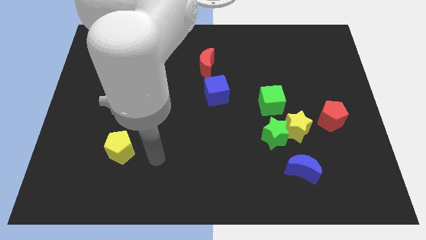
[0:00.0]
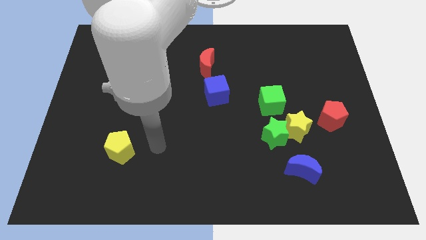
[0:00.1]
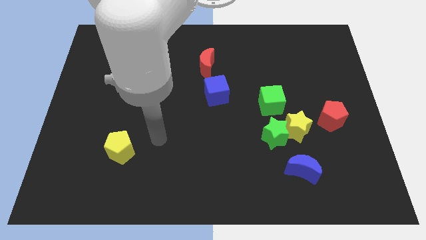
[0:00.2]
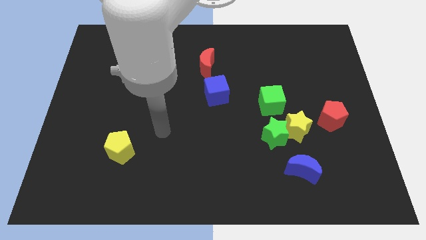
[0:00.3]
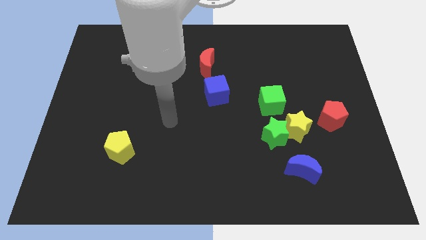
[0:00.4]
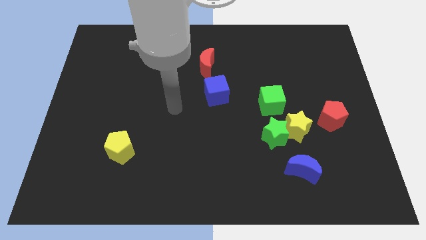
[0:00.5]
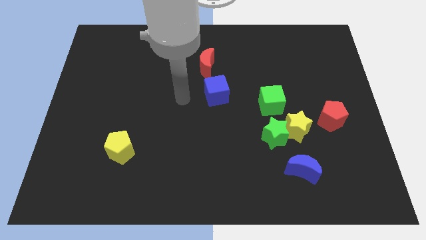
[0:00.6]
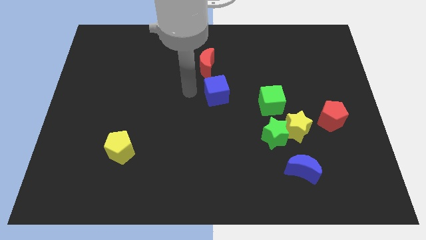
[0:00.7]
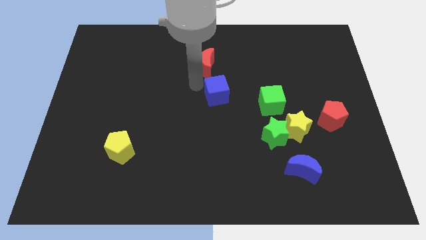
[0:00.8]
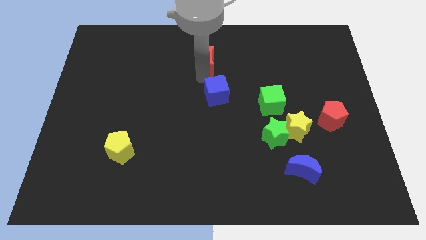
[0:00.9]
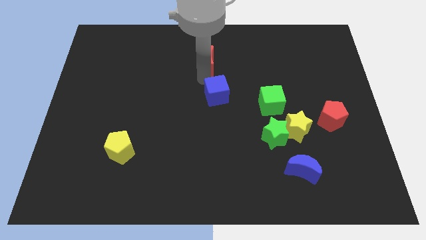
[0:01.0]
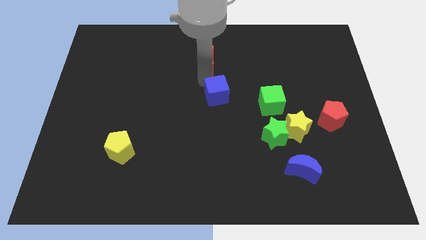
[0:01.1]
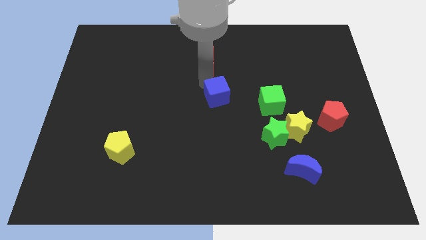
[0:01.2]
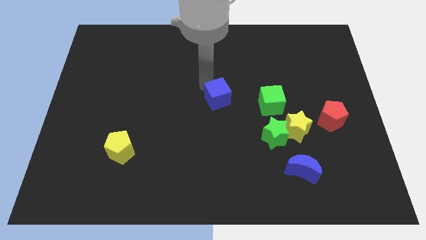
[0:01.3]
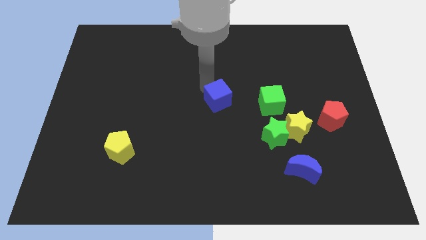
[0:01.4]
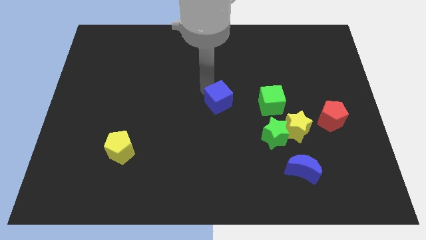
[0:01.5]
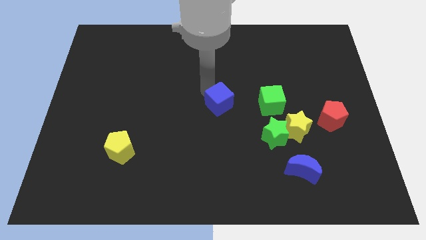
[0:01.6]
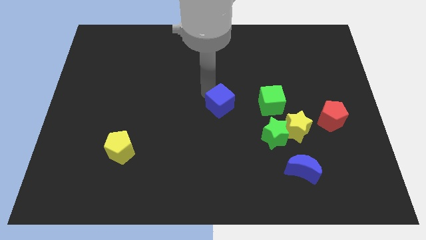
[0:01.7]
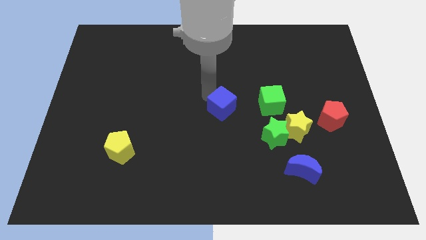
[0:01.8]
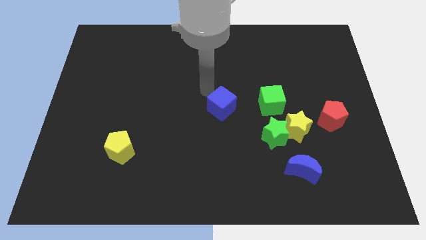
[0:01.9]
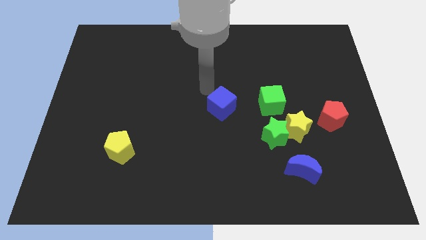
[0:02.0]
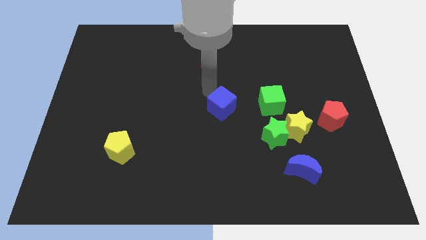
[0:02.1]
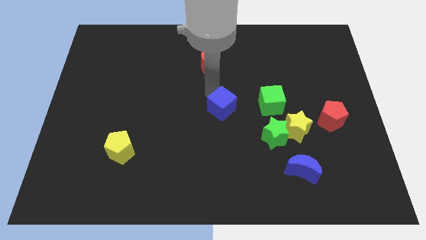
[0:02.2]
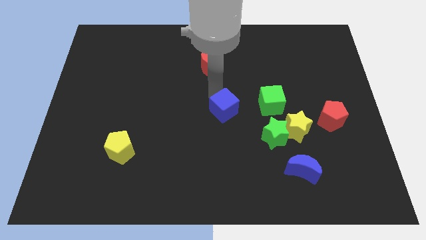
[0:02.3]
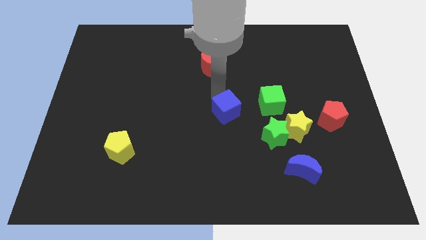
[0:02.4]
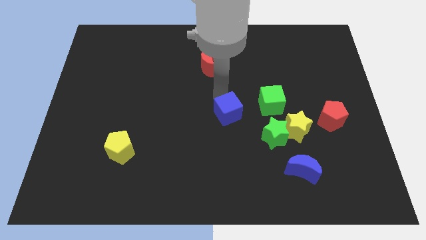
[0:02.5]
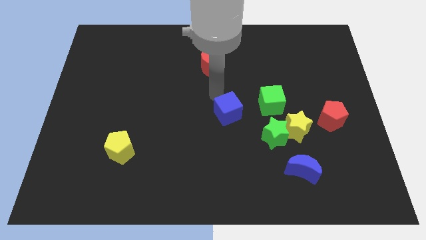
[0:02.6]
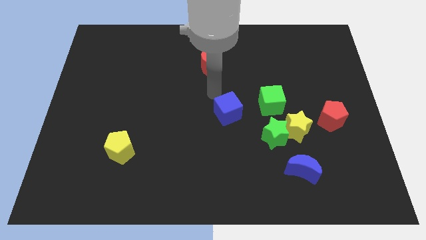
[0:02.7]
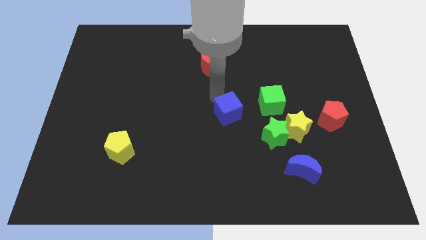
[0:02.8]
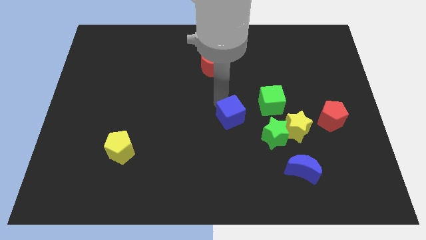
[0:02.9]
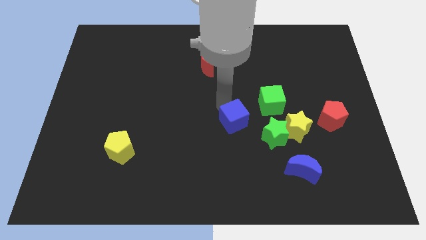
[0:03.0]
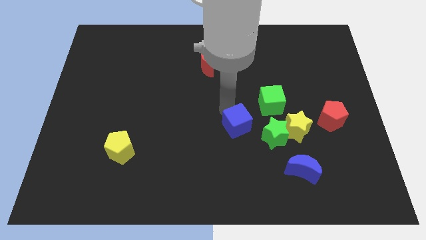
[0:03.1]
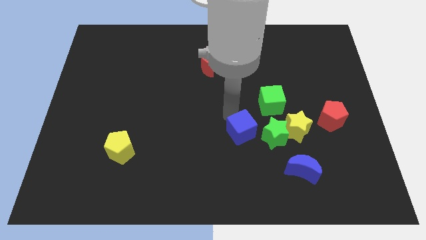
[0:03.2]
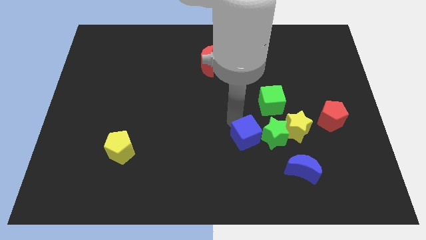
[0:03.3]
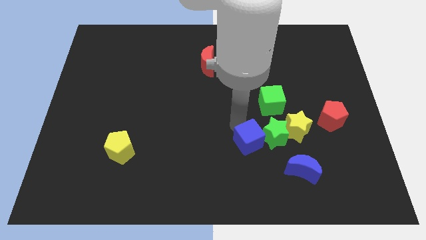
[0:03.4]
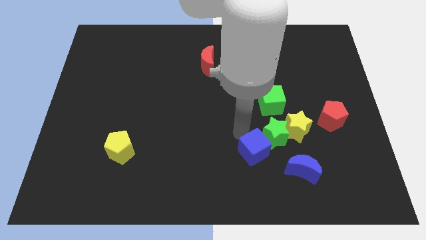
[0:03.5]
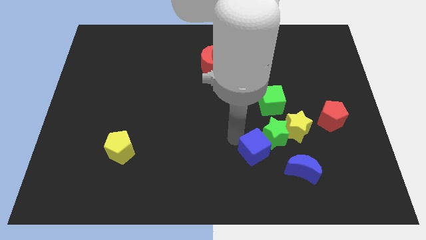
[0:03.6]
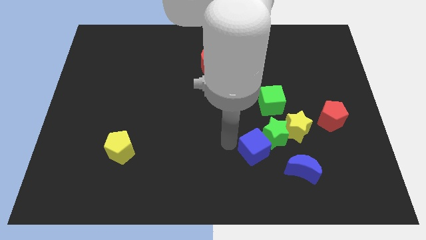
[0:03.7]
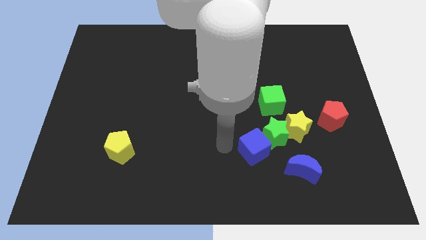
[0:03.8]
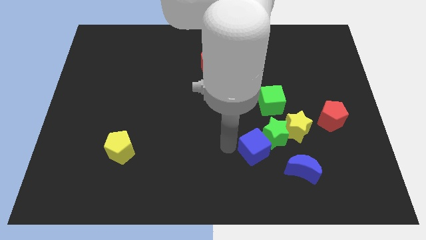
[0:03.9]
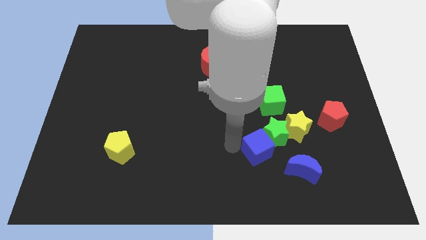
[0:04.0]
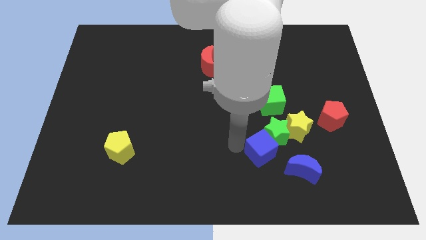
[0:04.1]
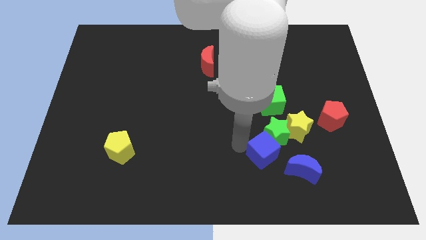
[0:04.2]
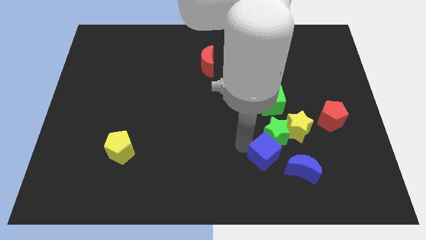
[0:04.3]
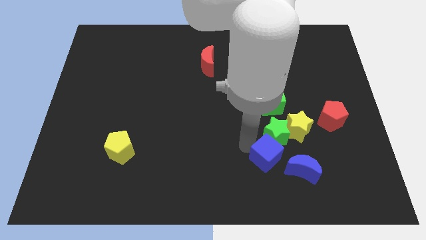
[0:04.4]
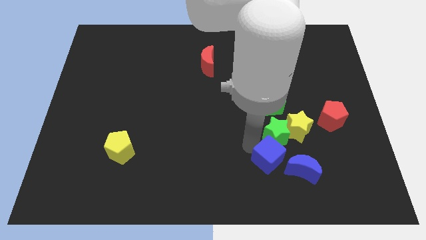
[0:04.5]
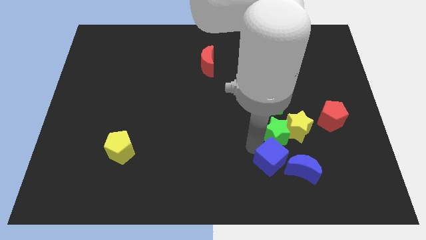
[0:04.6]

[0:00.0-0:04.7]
move the blue cube down and right diagonally

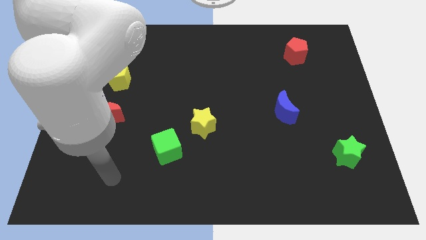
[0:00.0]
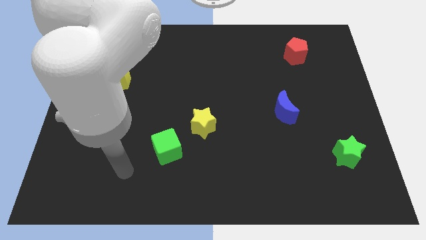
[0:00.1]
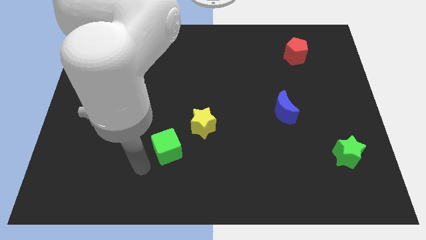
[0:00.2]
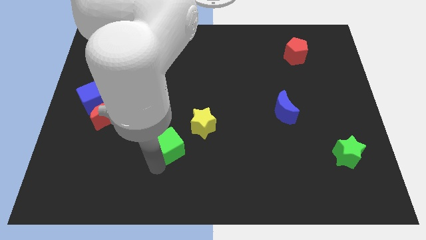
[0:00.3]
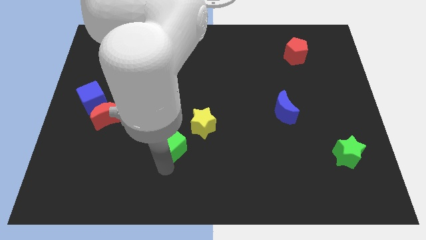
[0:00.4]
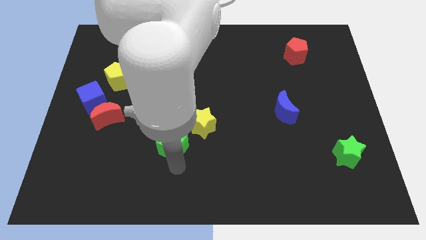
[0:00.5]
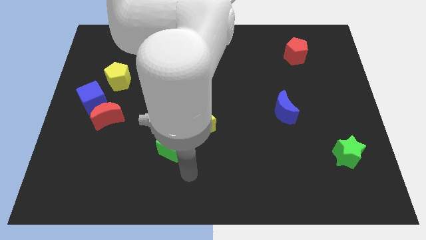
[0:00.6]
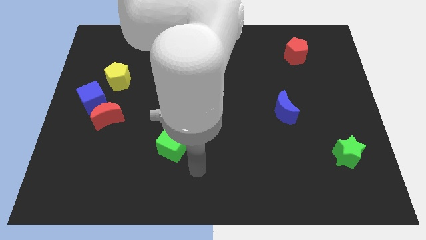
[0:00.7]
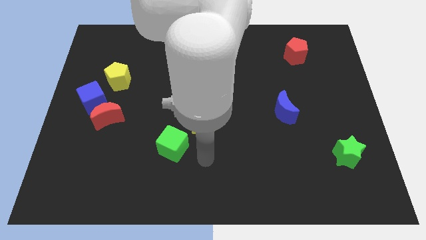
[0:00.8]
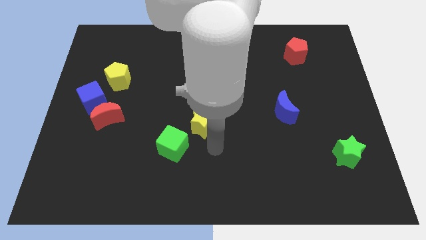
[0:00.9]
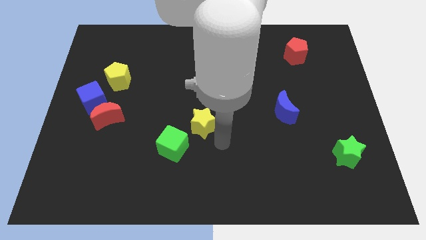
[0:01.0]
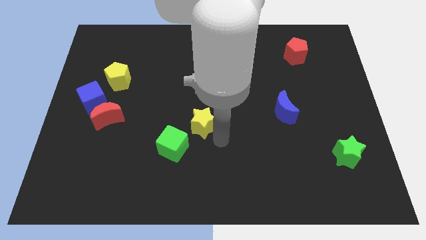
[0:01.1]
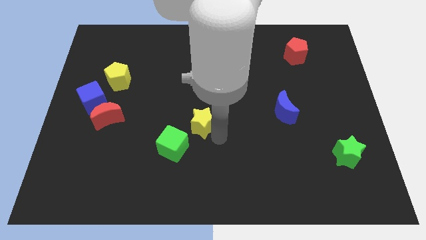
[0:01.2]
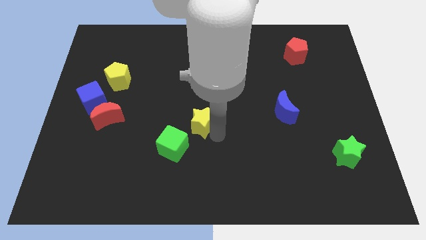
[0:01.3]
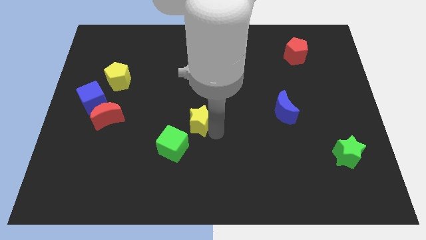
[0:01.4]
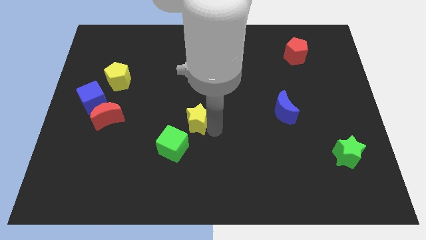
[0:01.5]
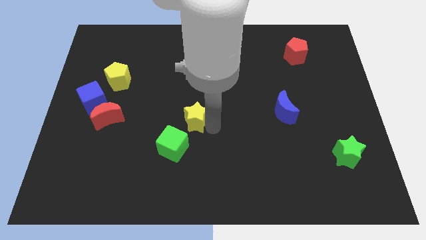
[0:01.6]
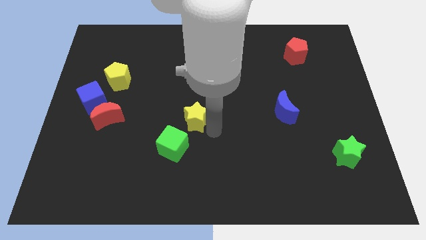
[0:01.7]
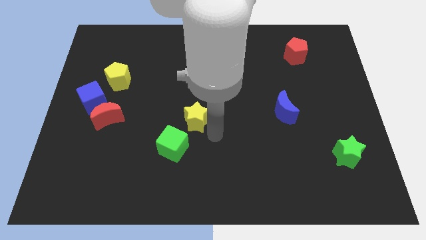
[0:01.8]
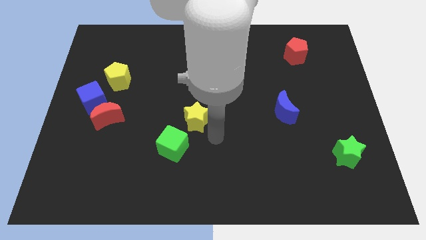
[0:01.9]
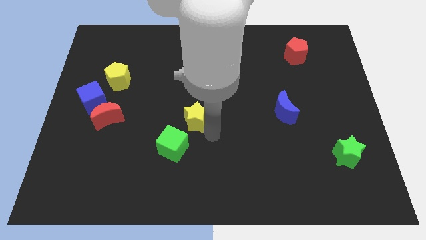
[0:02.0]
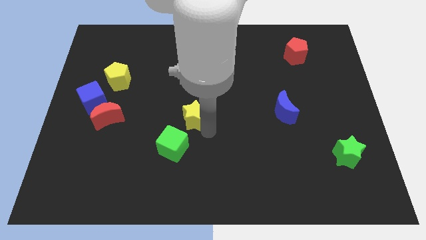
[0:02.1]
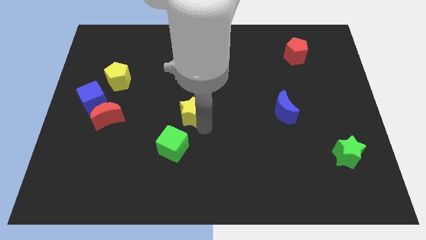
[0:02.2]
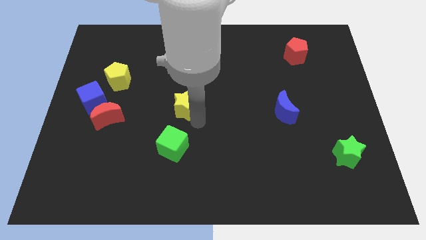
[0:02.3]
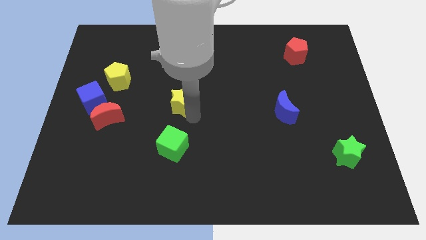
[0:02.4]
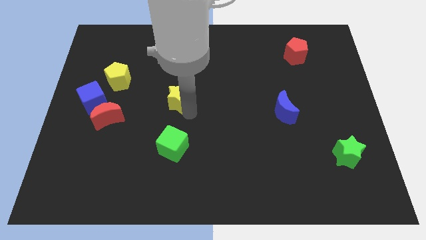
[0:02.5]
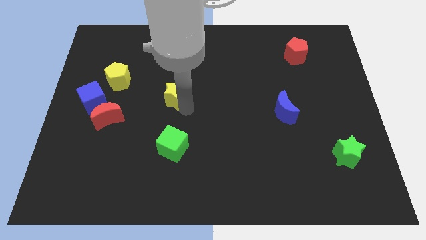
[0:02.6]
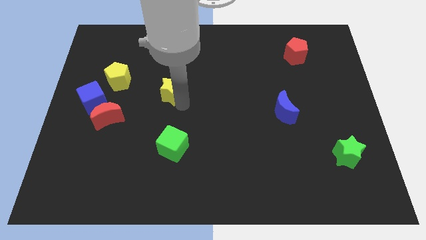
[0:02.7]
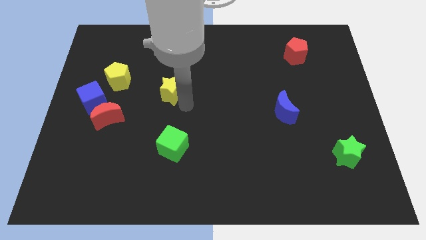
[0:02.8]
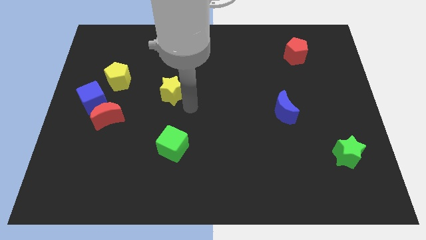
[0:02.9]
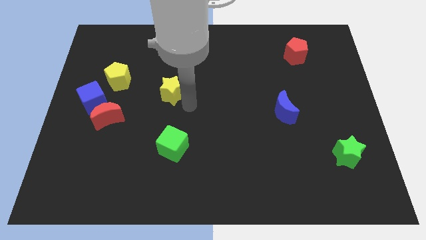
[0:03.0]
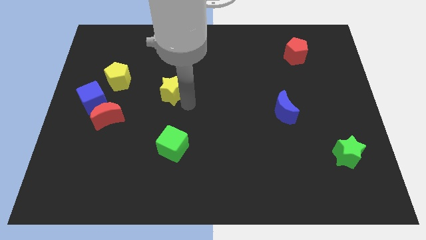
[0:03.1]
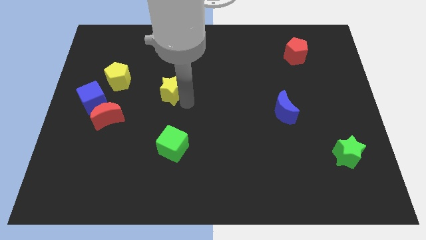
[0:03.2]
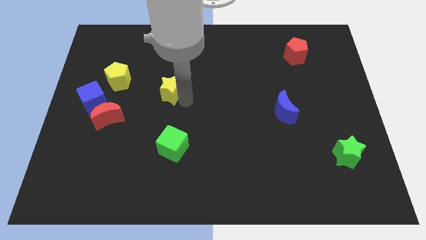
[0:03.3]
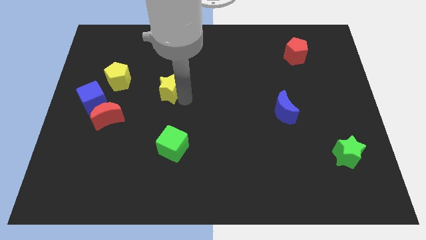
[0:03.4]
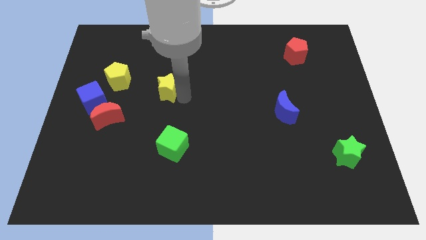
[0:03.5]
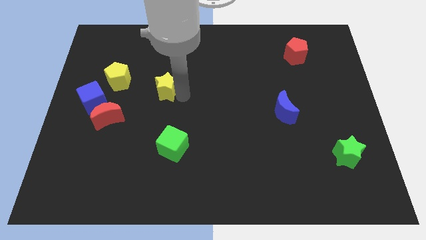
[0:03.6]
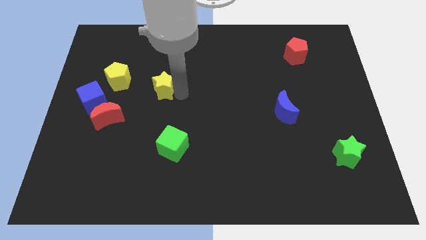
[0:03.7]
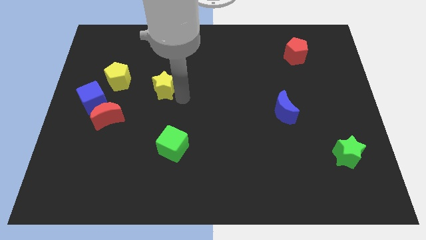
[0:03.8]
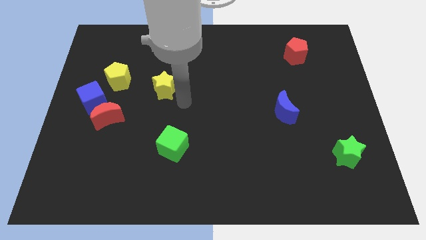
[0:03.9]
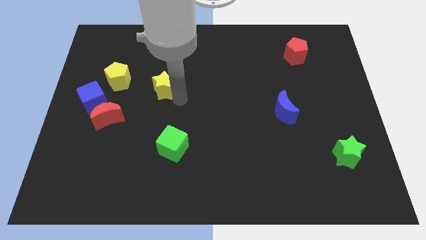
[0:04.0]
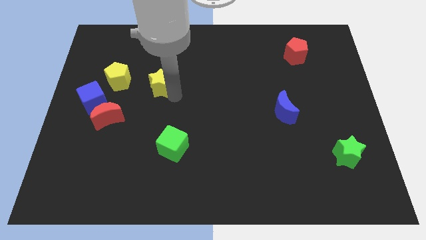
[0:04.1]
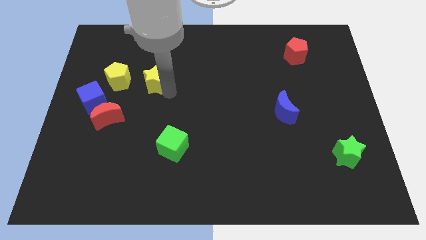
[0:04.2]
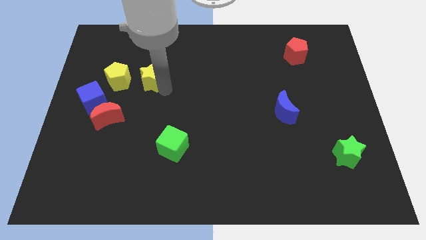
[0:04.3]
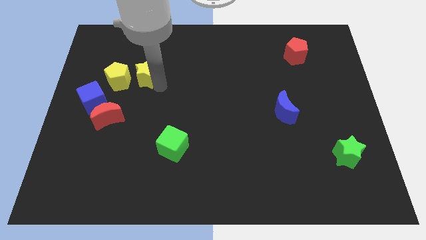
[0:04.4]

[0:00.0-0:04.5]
push the yellow star diagonally upwards and to the left
